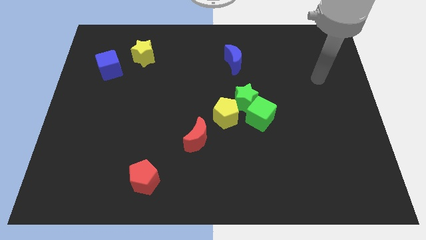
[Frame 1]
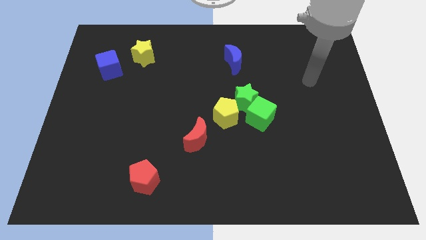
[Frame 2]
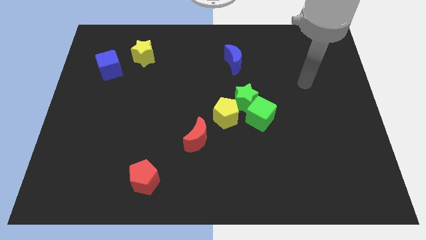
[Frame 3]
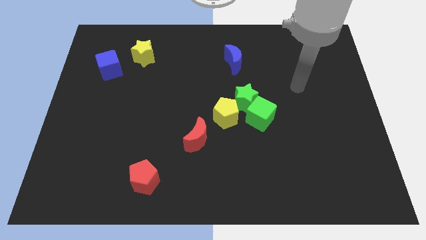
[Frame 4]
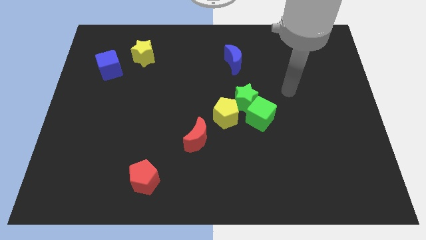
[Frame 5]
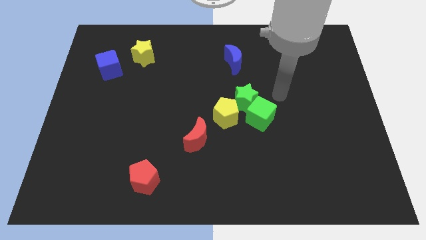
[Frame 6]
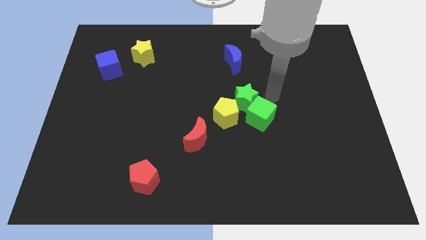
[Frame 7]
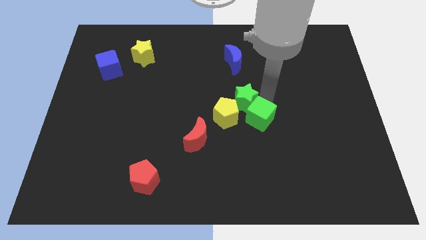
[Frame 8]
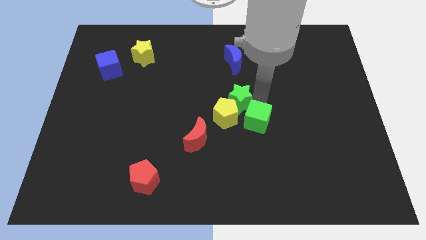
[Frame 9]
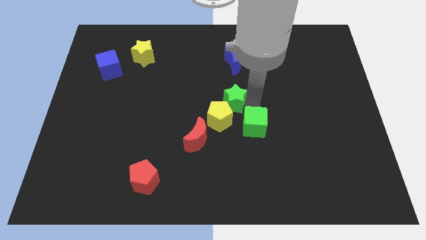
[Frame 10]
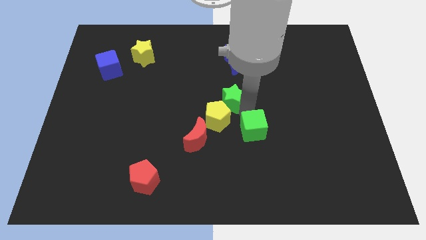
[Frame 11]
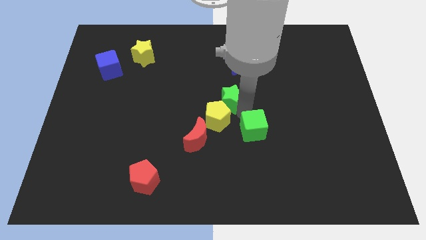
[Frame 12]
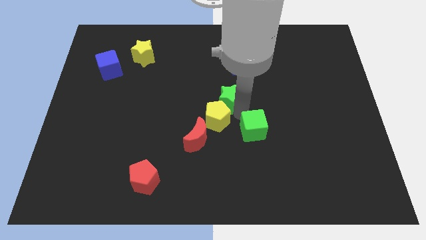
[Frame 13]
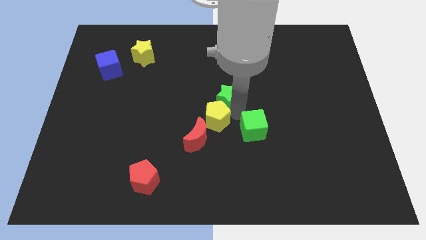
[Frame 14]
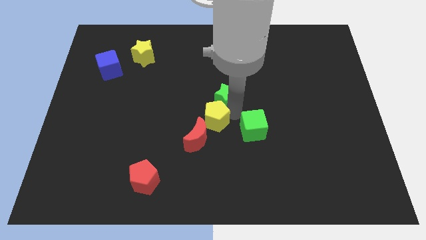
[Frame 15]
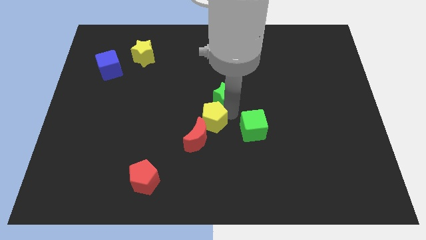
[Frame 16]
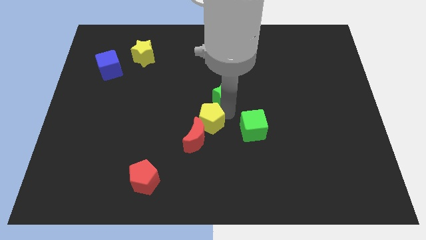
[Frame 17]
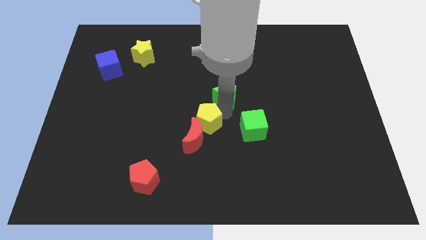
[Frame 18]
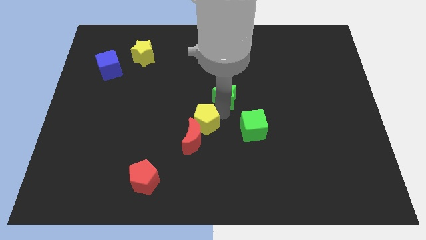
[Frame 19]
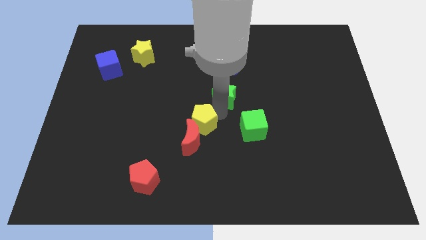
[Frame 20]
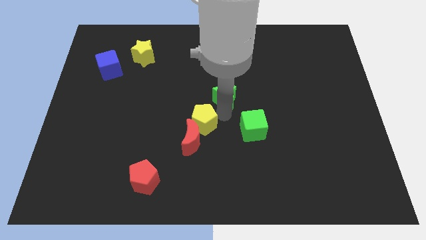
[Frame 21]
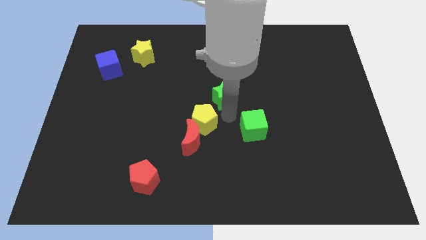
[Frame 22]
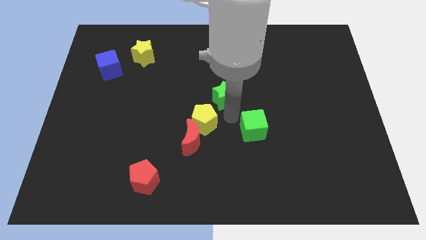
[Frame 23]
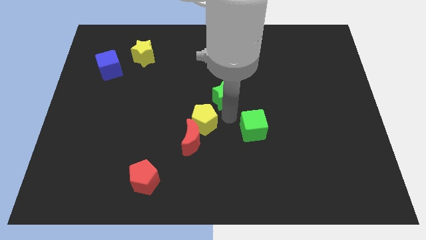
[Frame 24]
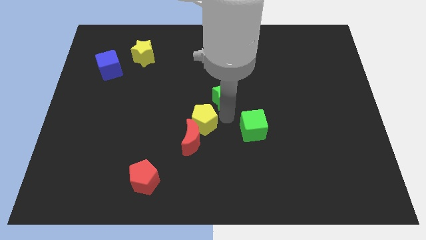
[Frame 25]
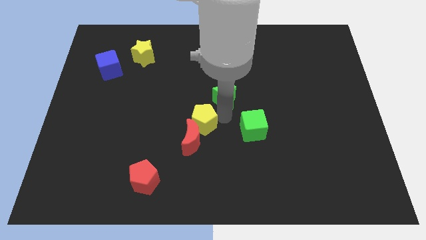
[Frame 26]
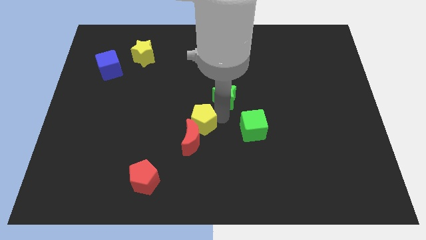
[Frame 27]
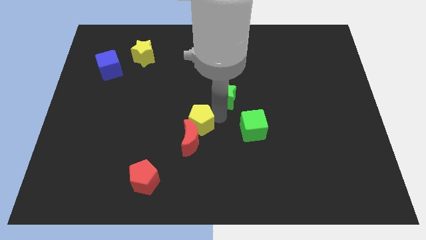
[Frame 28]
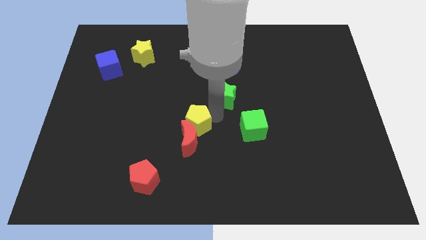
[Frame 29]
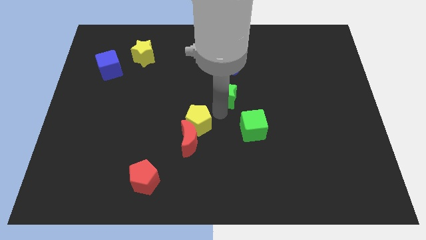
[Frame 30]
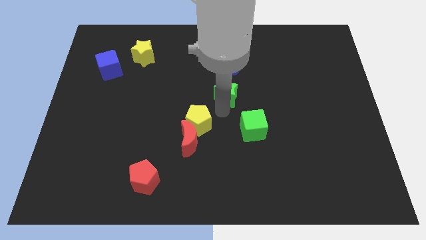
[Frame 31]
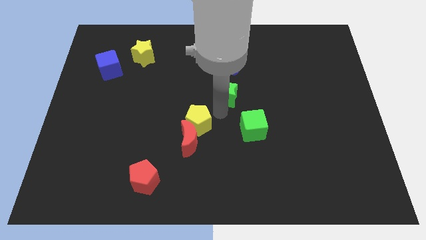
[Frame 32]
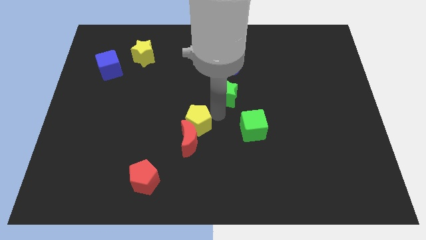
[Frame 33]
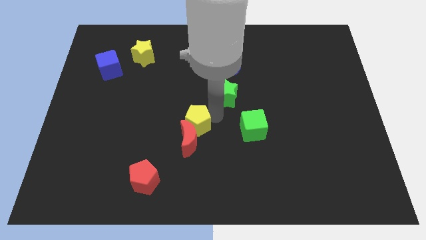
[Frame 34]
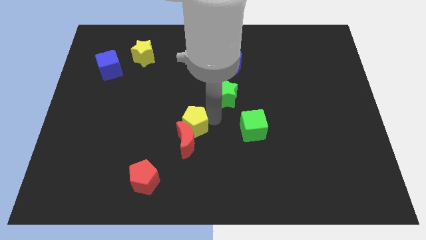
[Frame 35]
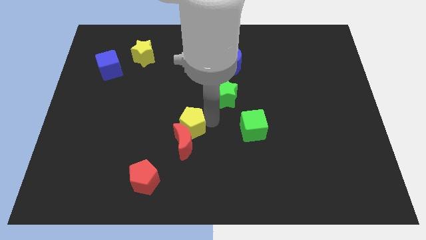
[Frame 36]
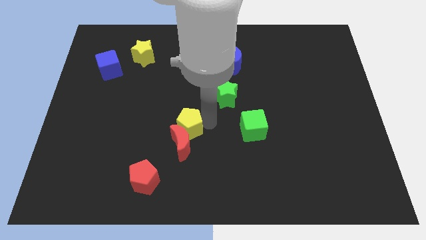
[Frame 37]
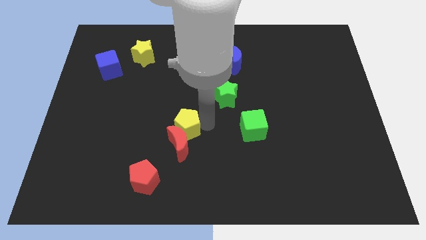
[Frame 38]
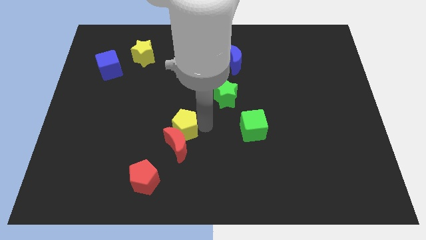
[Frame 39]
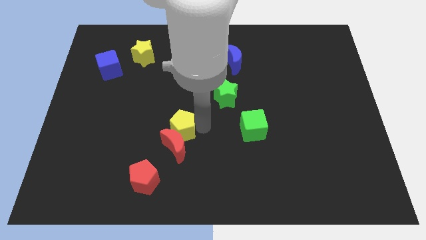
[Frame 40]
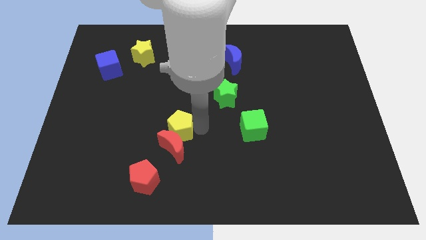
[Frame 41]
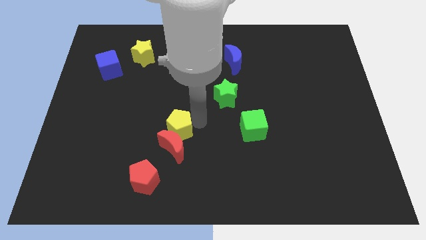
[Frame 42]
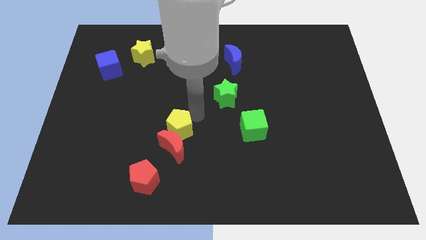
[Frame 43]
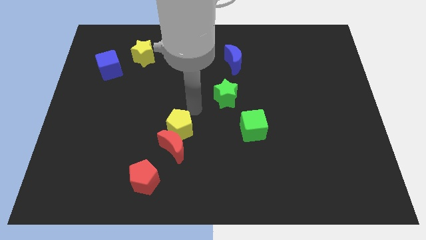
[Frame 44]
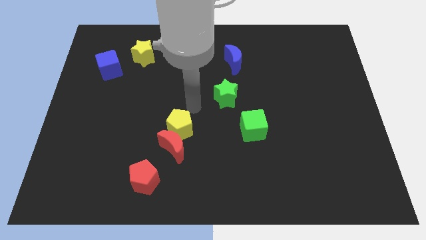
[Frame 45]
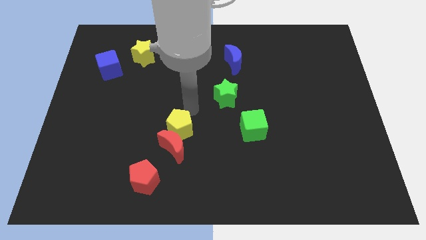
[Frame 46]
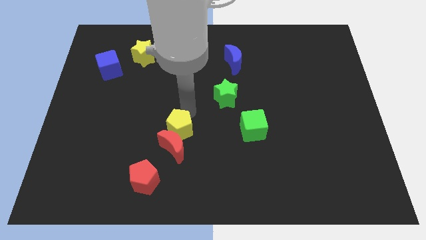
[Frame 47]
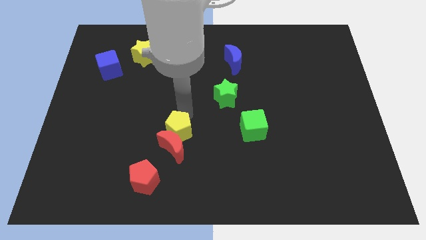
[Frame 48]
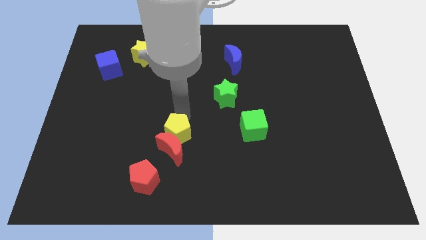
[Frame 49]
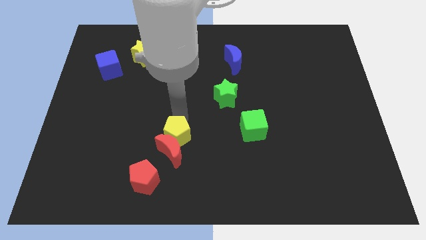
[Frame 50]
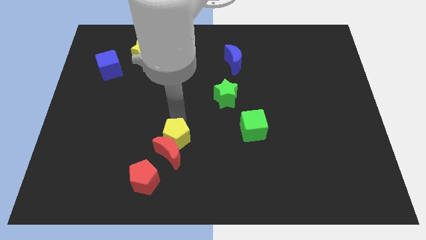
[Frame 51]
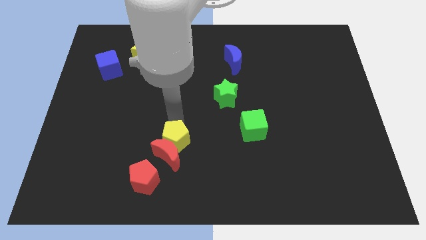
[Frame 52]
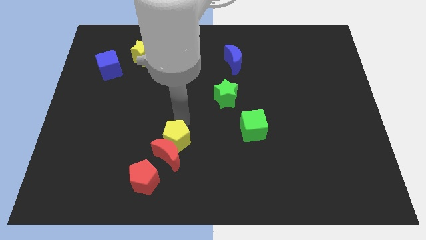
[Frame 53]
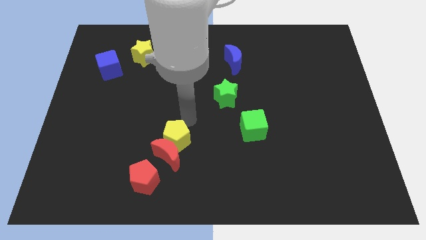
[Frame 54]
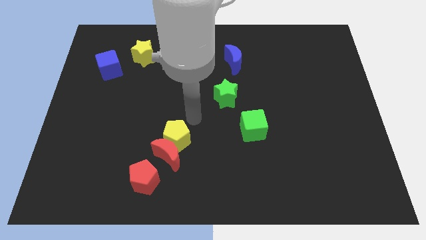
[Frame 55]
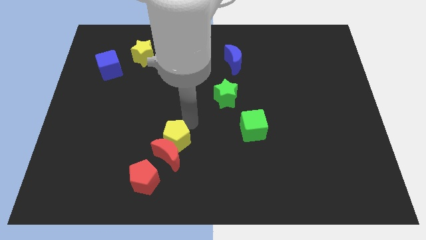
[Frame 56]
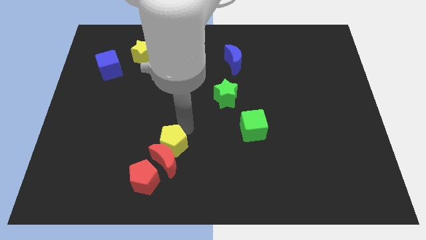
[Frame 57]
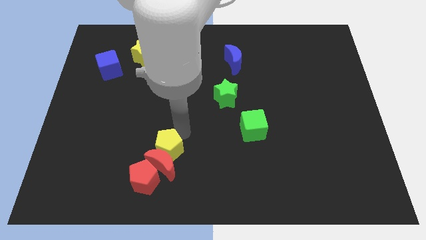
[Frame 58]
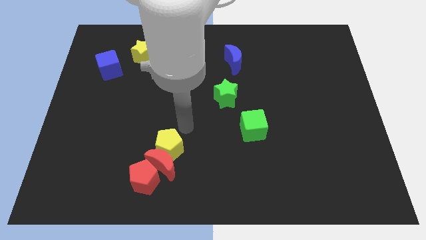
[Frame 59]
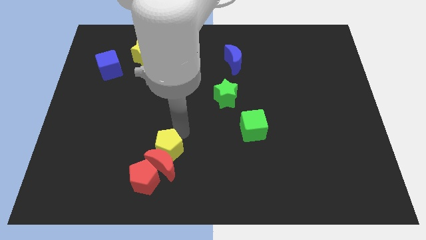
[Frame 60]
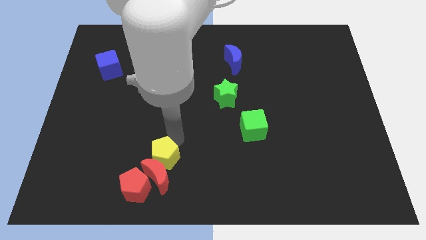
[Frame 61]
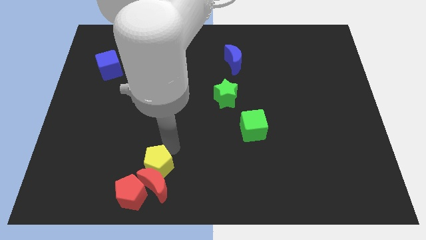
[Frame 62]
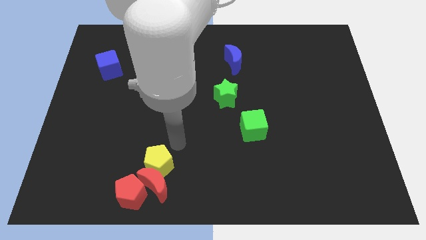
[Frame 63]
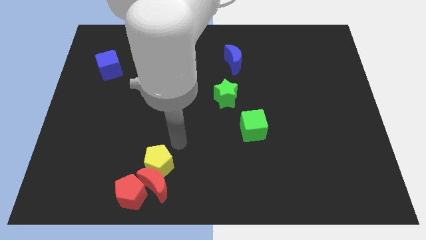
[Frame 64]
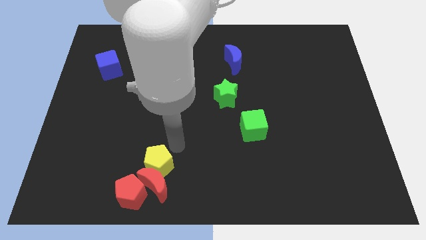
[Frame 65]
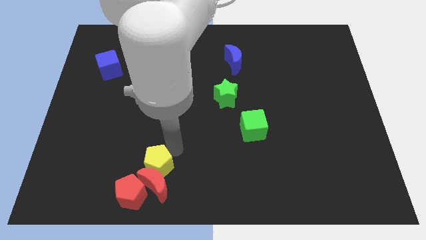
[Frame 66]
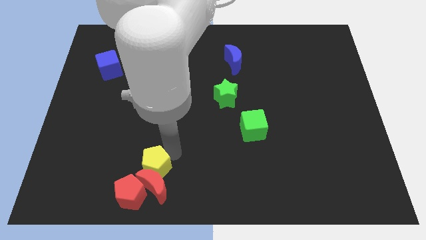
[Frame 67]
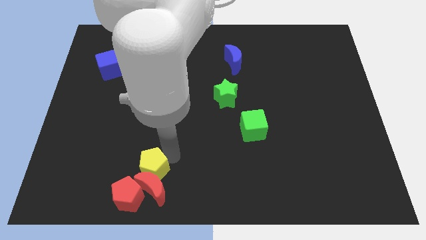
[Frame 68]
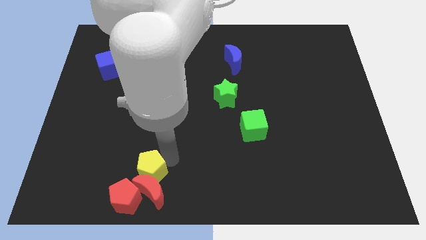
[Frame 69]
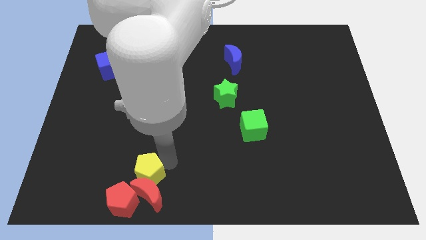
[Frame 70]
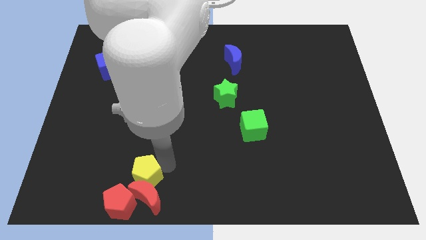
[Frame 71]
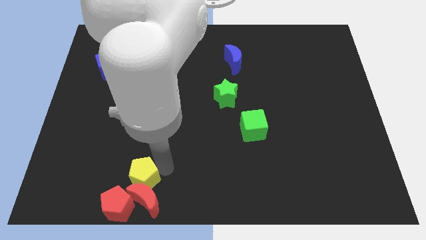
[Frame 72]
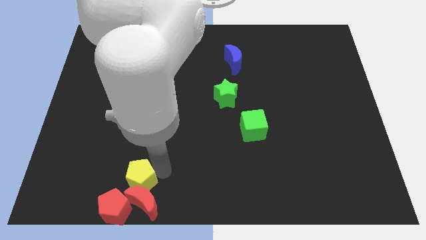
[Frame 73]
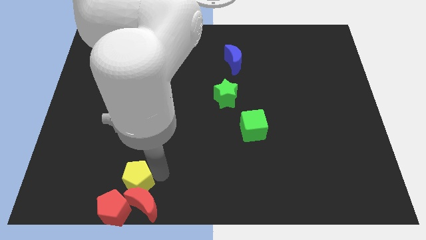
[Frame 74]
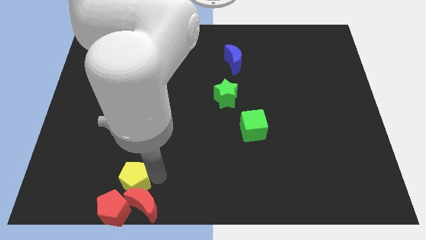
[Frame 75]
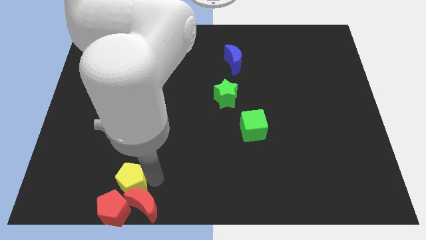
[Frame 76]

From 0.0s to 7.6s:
move the yellow pentagon next to the red pentagon
